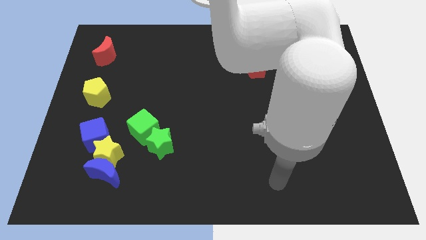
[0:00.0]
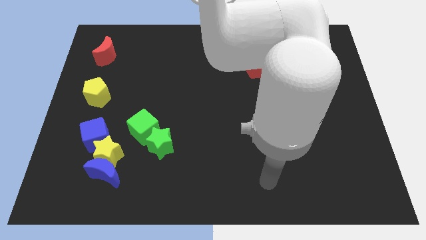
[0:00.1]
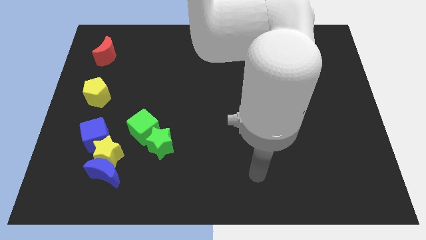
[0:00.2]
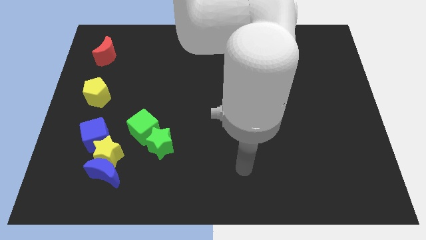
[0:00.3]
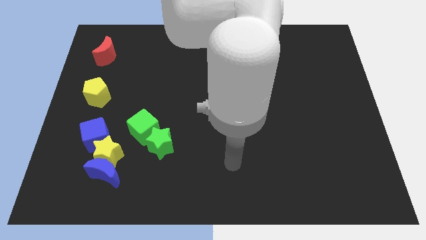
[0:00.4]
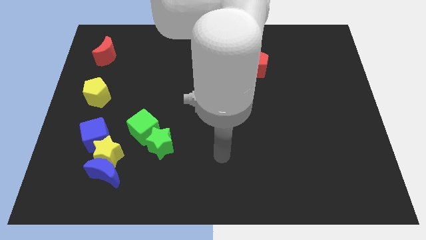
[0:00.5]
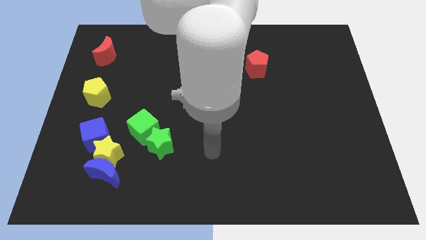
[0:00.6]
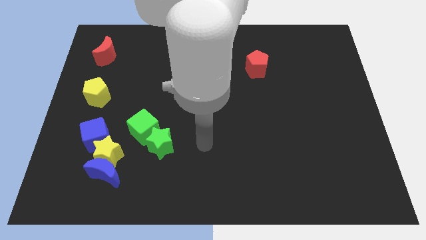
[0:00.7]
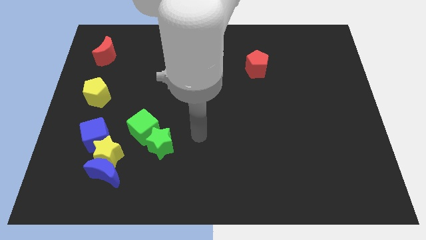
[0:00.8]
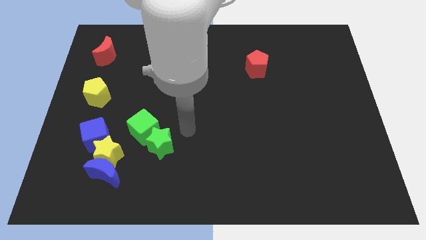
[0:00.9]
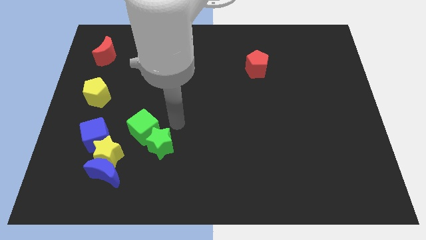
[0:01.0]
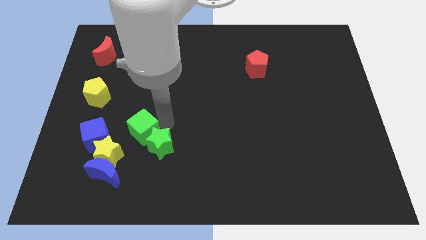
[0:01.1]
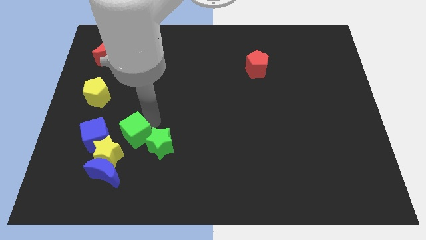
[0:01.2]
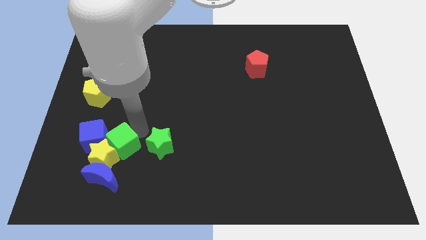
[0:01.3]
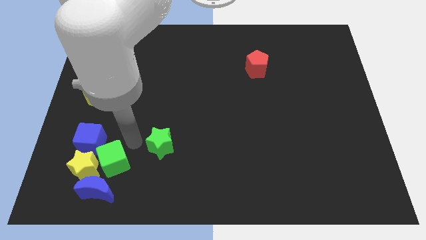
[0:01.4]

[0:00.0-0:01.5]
pull the green star apart from the green cube

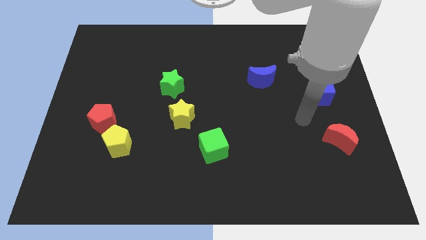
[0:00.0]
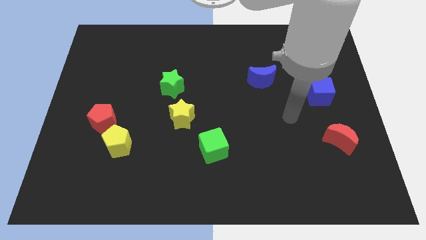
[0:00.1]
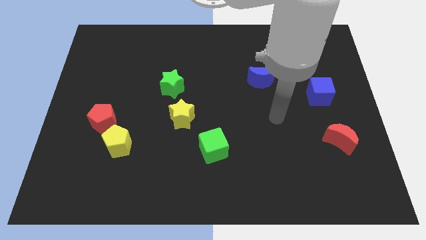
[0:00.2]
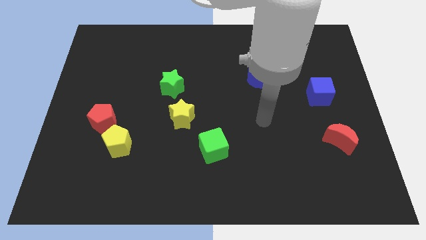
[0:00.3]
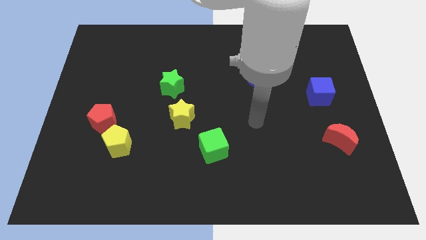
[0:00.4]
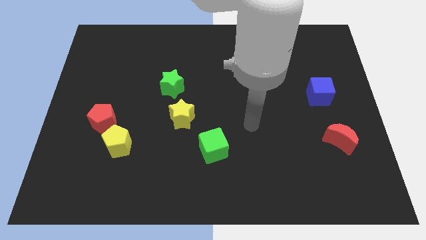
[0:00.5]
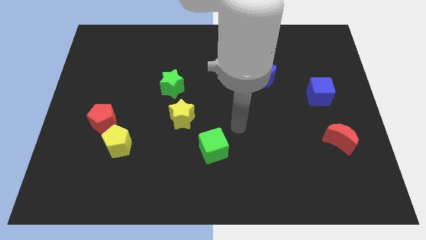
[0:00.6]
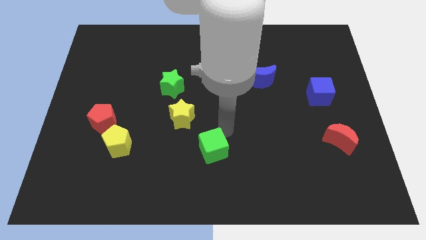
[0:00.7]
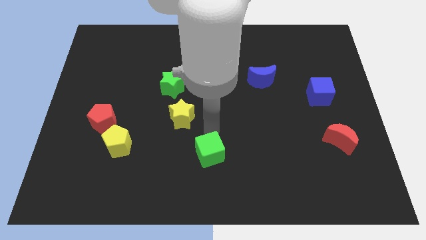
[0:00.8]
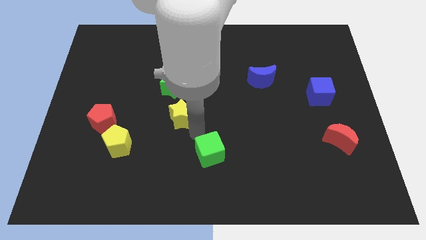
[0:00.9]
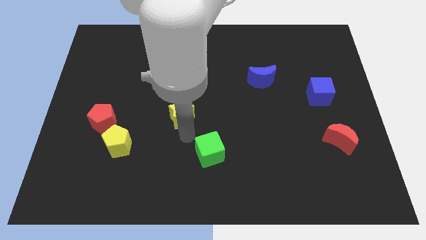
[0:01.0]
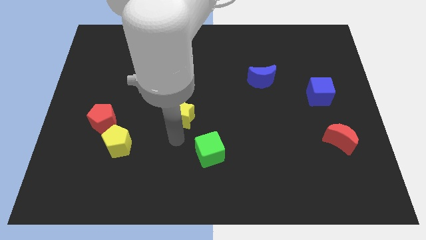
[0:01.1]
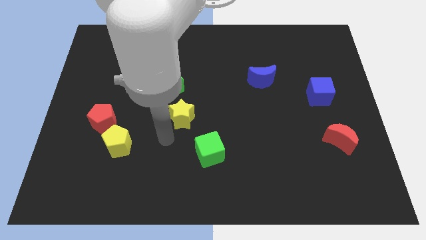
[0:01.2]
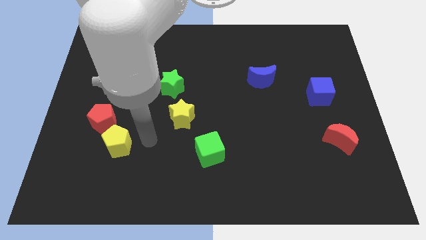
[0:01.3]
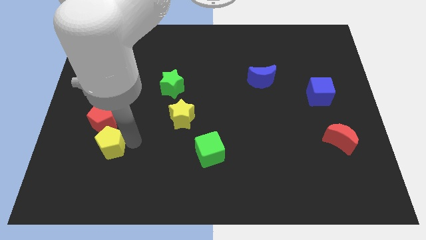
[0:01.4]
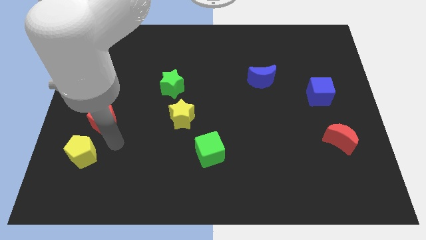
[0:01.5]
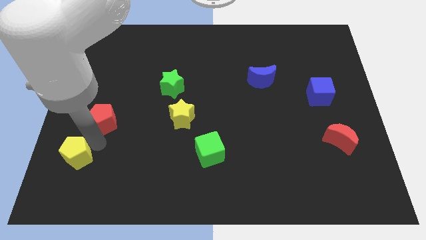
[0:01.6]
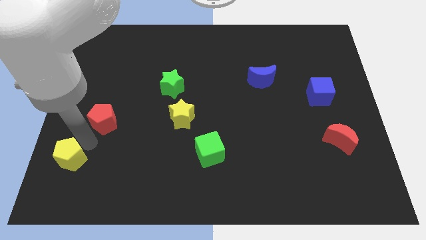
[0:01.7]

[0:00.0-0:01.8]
move the red pentagon away from the yellow pentagon

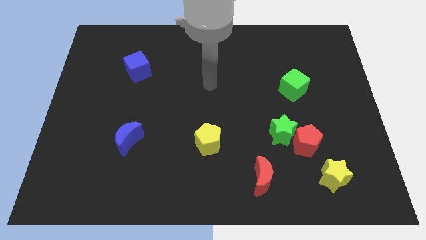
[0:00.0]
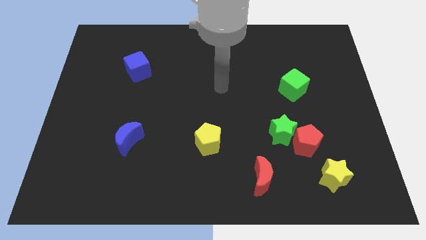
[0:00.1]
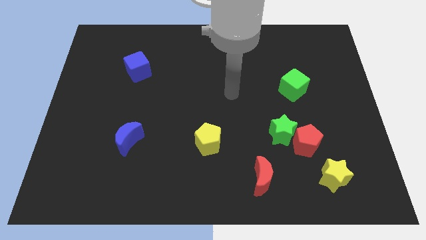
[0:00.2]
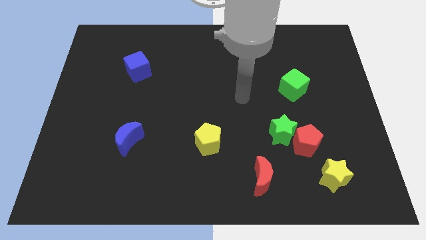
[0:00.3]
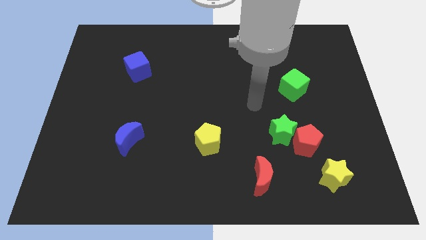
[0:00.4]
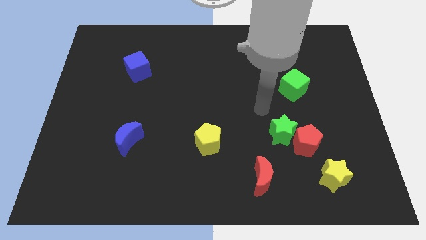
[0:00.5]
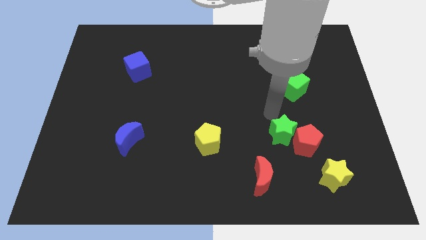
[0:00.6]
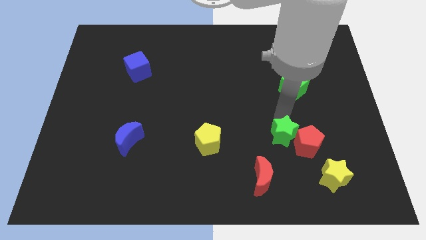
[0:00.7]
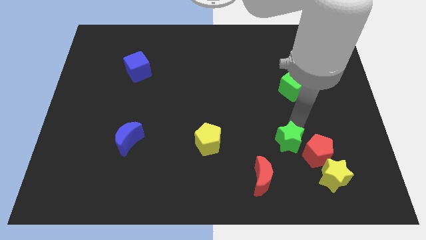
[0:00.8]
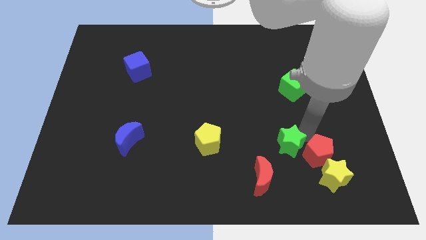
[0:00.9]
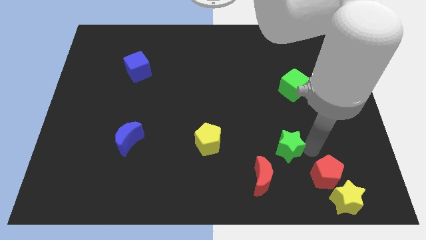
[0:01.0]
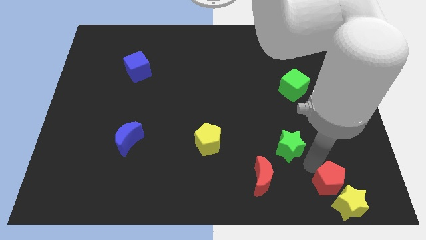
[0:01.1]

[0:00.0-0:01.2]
move the green star away from the red pentagon

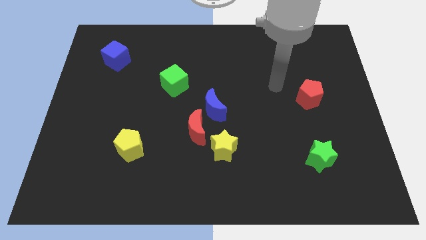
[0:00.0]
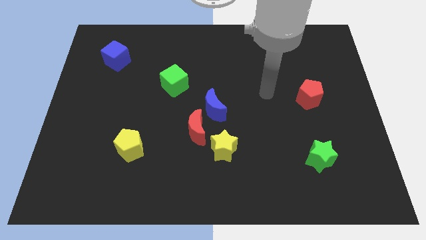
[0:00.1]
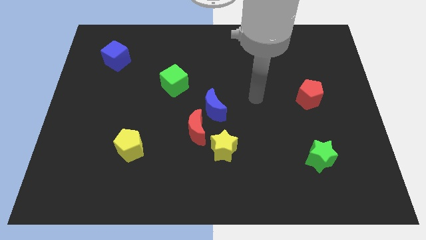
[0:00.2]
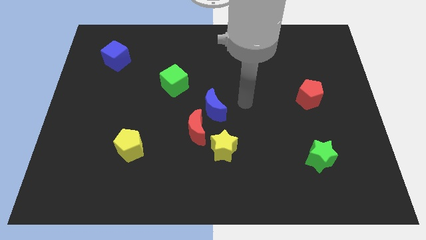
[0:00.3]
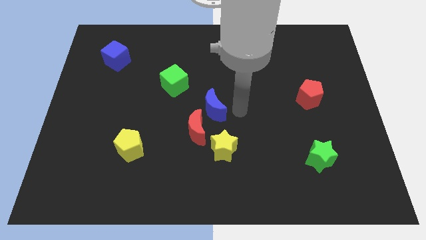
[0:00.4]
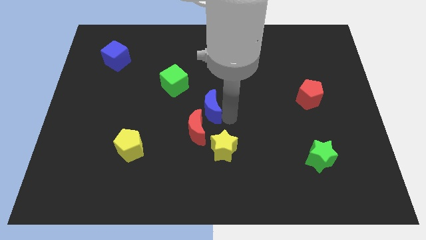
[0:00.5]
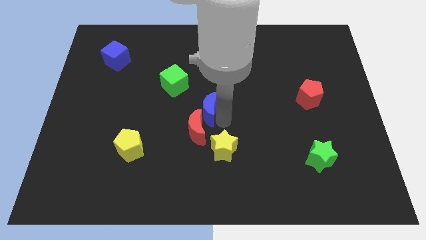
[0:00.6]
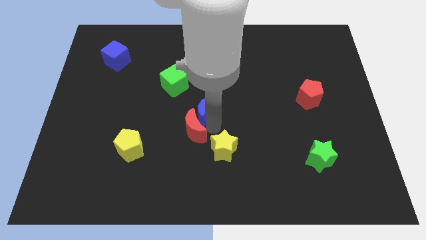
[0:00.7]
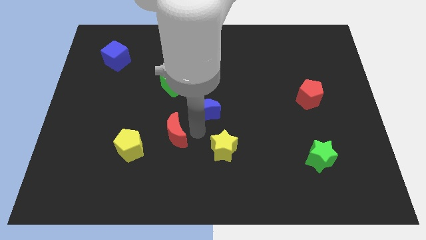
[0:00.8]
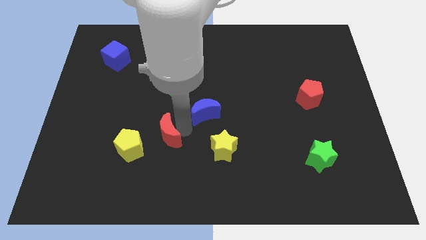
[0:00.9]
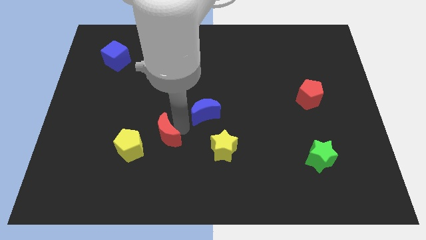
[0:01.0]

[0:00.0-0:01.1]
move the blue moon away from the red moon

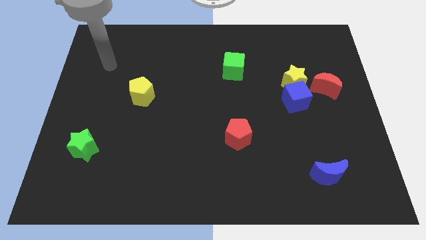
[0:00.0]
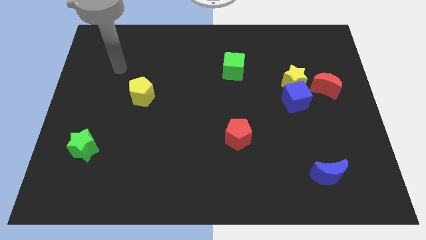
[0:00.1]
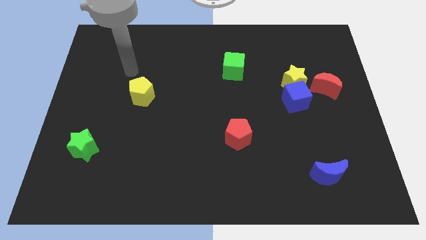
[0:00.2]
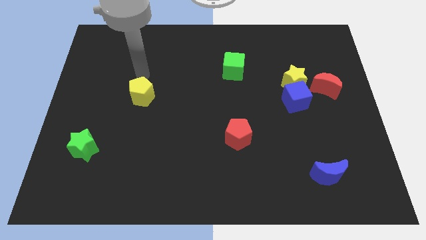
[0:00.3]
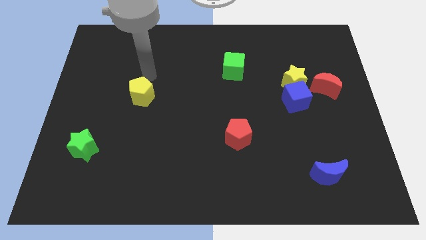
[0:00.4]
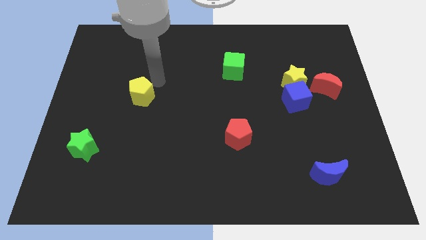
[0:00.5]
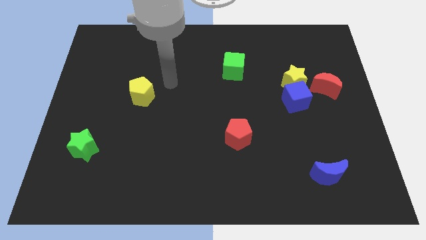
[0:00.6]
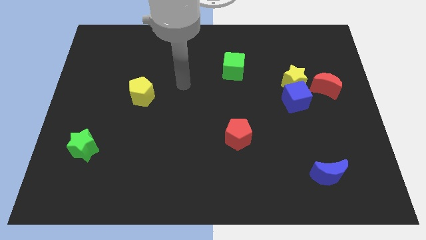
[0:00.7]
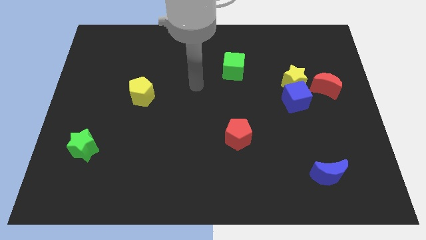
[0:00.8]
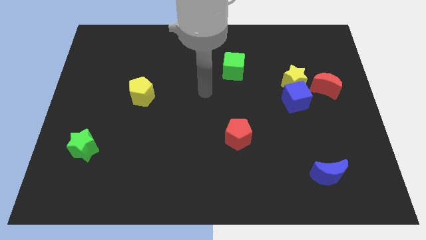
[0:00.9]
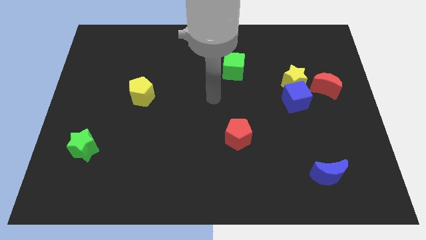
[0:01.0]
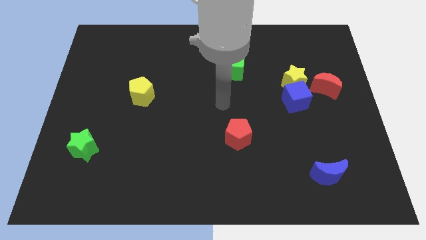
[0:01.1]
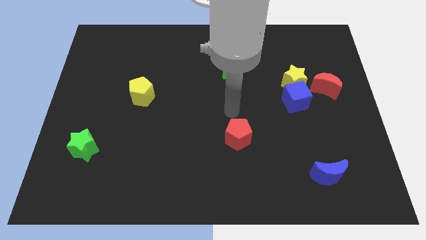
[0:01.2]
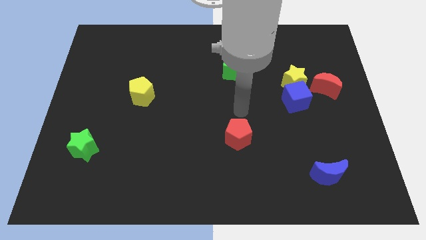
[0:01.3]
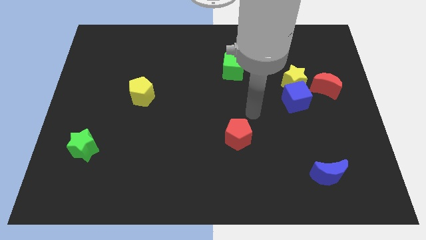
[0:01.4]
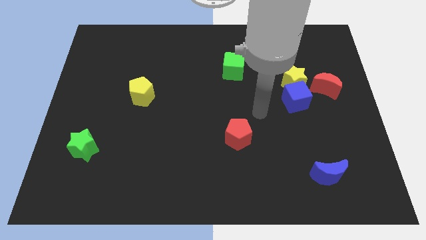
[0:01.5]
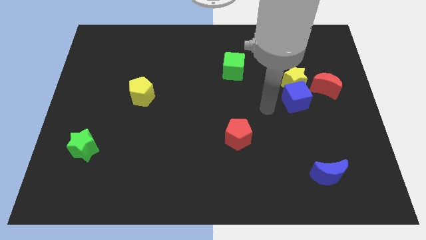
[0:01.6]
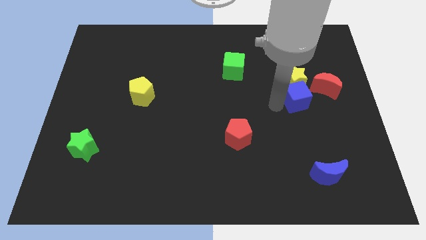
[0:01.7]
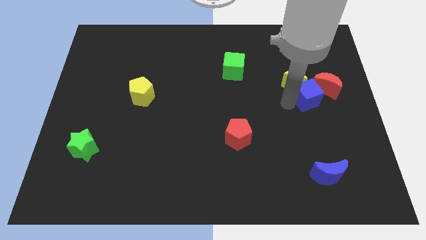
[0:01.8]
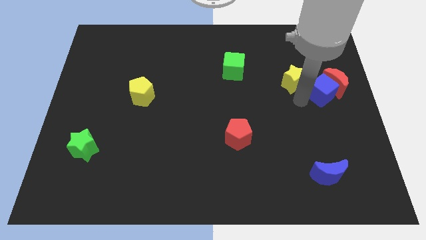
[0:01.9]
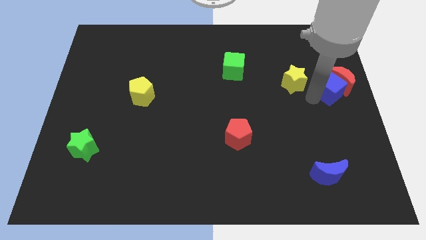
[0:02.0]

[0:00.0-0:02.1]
move the yellow star away from the blue cube and red moon

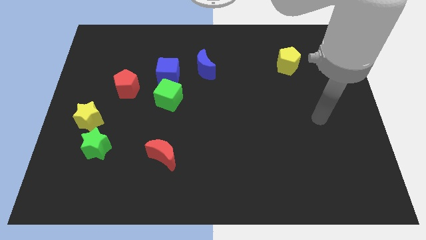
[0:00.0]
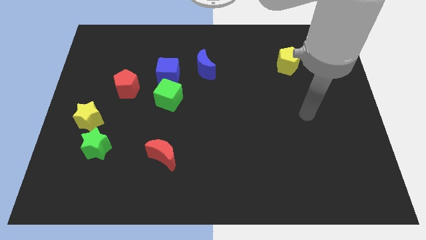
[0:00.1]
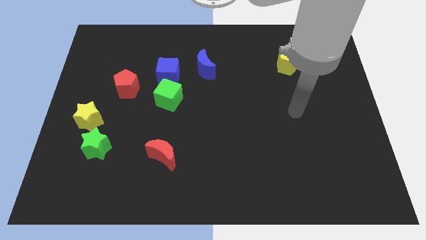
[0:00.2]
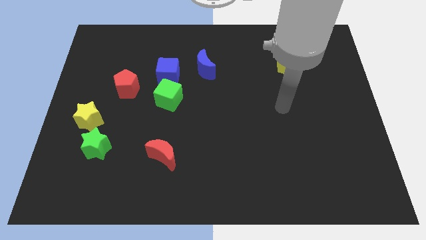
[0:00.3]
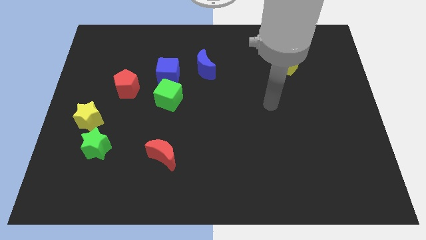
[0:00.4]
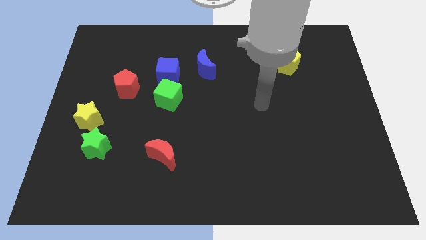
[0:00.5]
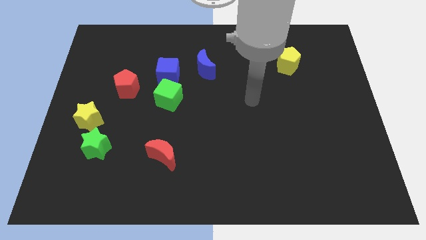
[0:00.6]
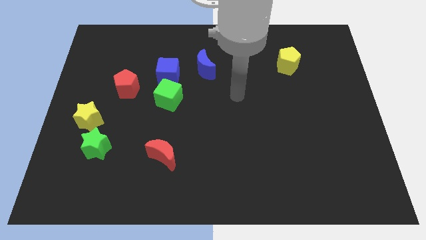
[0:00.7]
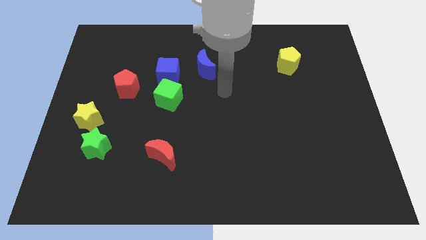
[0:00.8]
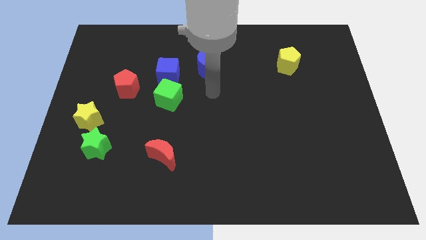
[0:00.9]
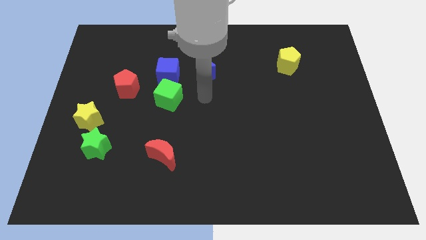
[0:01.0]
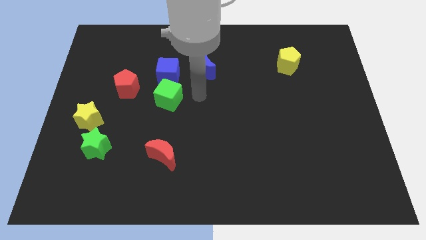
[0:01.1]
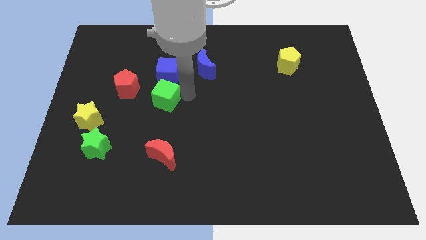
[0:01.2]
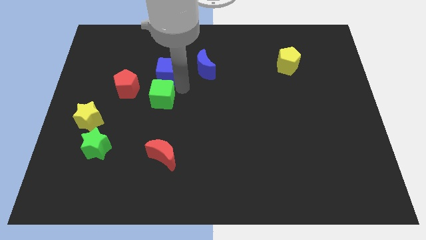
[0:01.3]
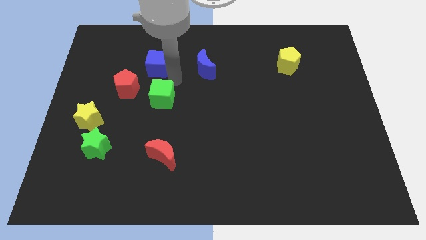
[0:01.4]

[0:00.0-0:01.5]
separate the green cube from the blue cube
